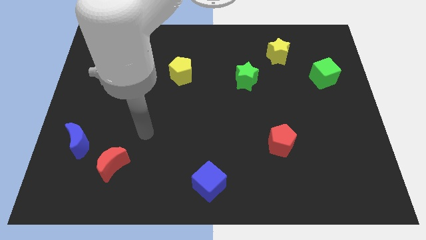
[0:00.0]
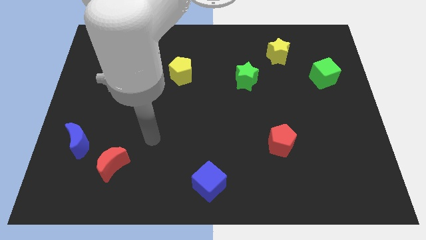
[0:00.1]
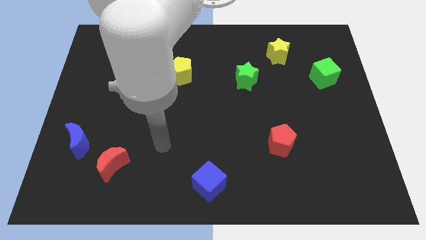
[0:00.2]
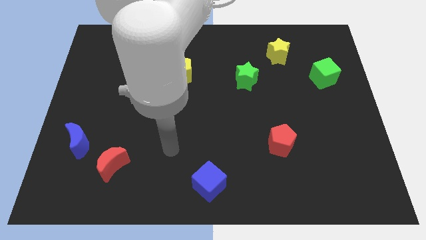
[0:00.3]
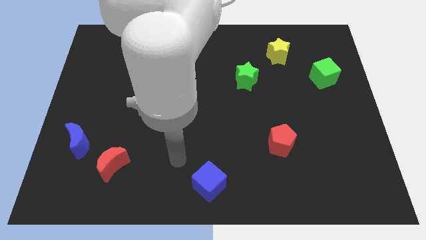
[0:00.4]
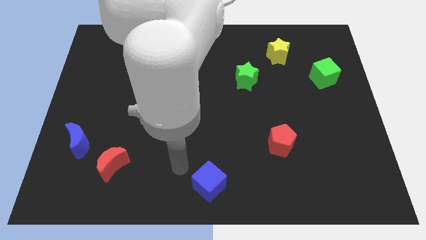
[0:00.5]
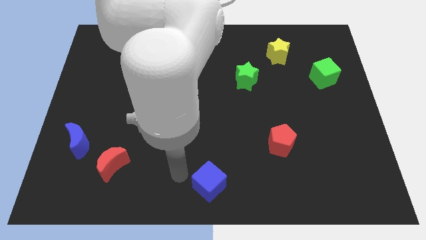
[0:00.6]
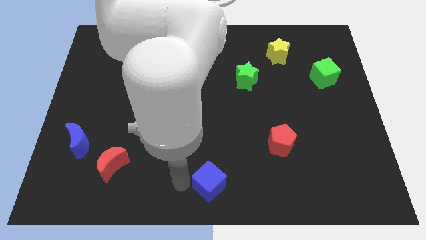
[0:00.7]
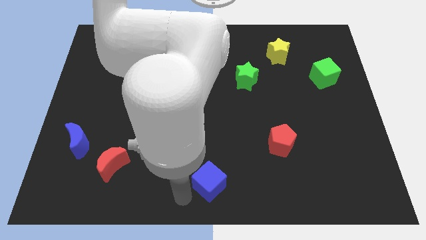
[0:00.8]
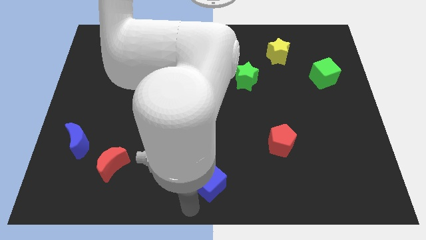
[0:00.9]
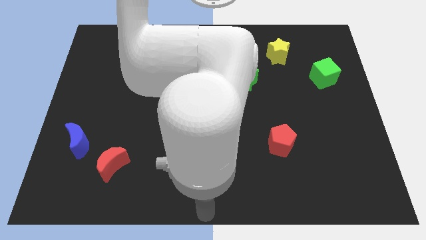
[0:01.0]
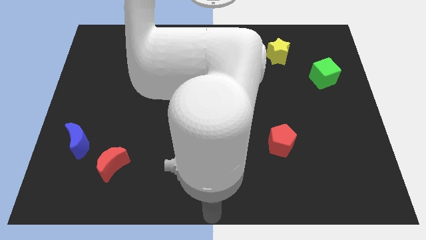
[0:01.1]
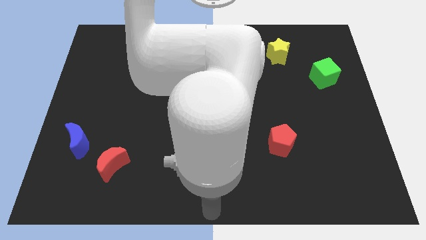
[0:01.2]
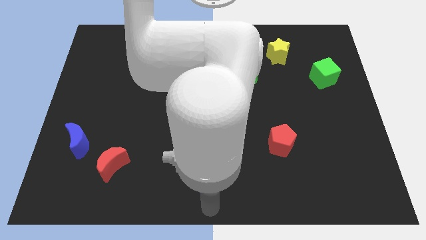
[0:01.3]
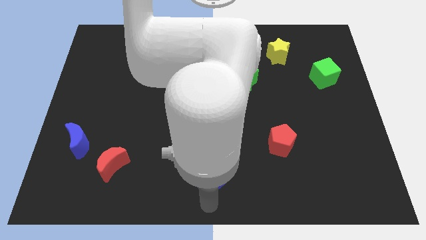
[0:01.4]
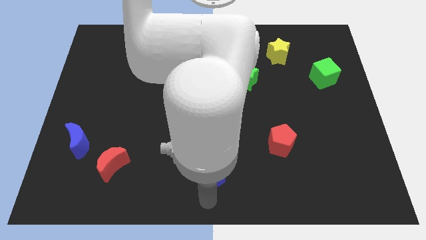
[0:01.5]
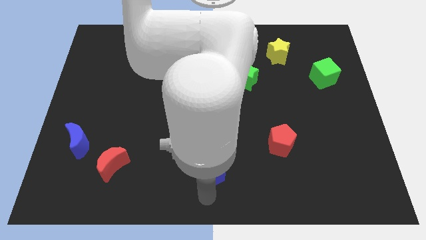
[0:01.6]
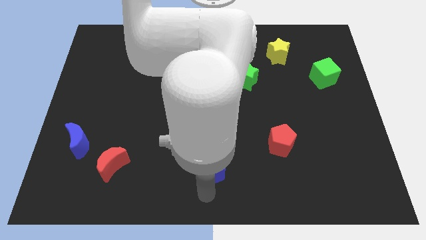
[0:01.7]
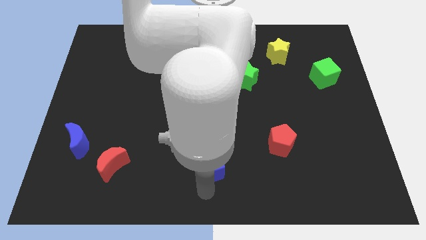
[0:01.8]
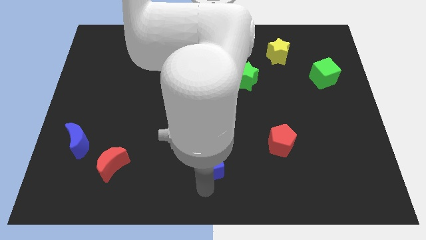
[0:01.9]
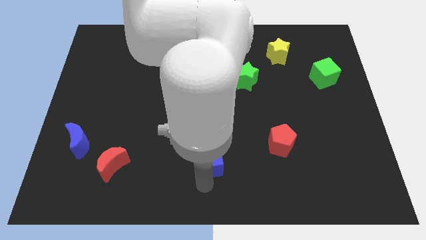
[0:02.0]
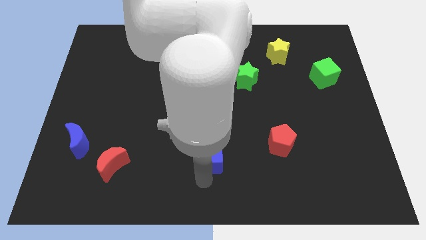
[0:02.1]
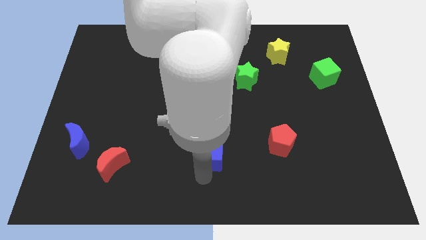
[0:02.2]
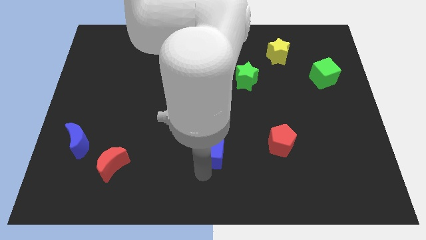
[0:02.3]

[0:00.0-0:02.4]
slightly push the blue cube upwards

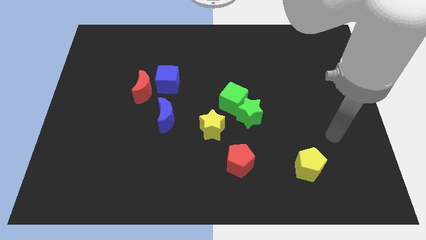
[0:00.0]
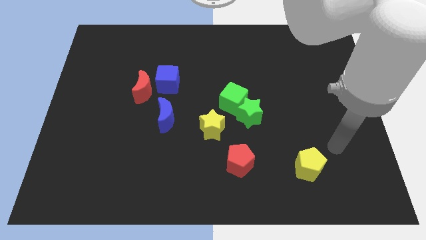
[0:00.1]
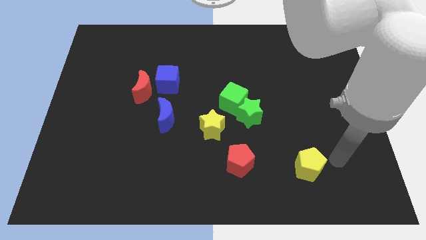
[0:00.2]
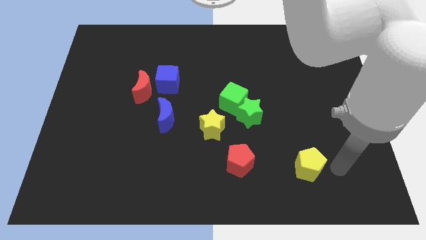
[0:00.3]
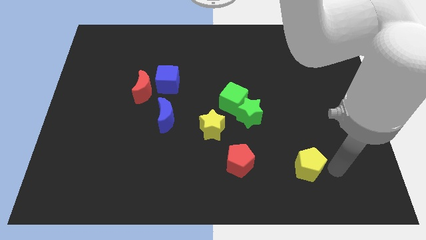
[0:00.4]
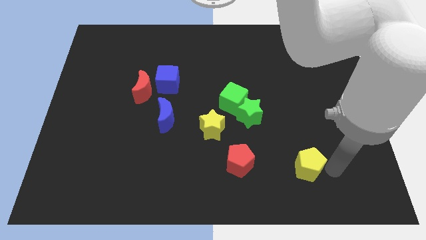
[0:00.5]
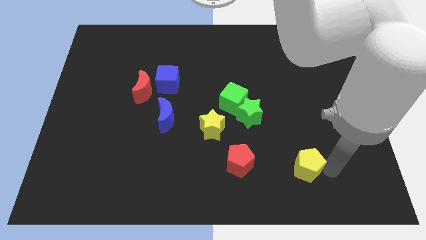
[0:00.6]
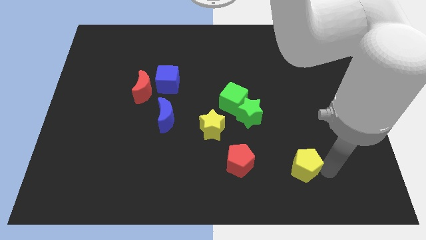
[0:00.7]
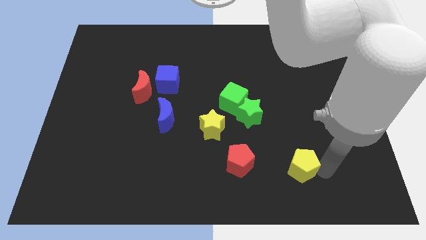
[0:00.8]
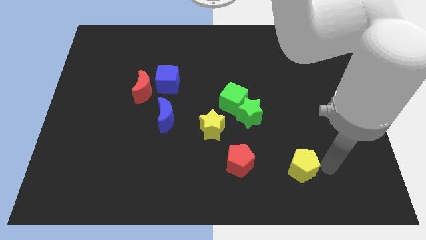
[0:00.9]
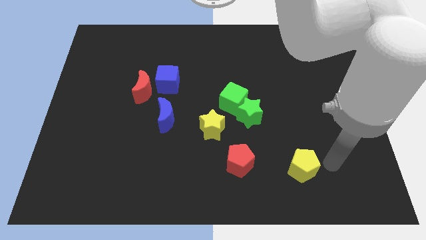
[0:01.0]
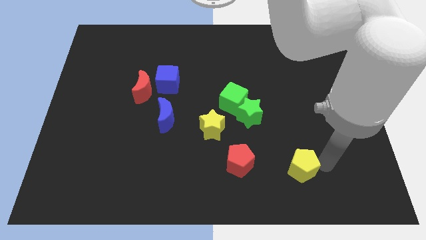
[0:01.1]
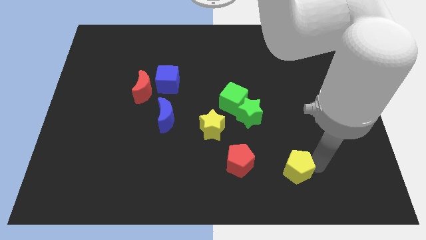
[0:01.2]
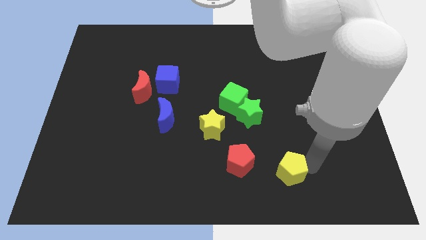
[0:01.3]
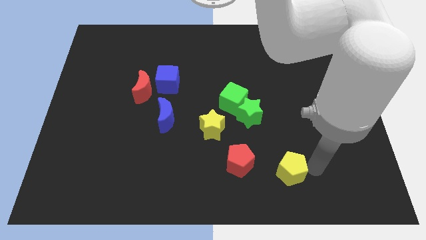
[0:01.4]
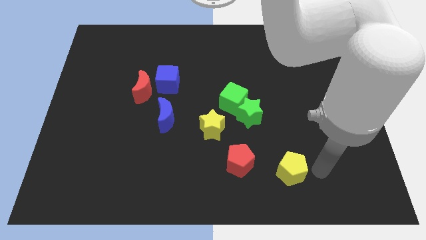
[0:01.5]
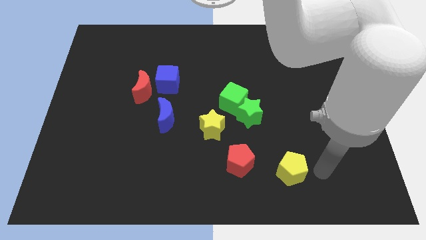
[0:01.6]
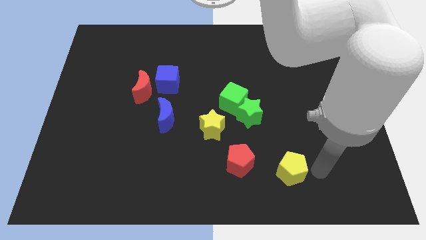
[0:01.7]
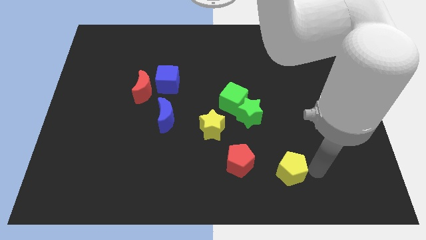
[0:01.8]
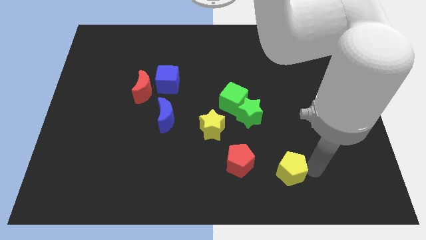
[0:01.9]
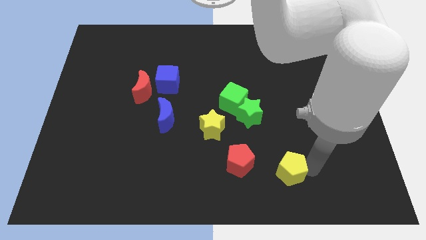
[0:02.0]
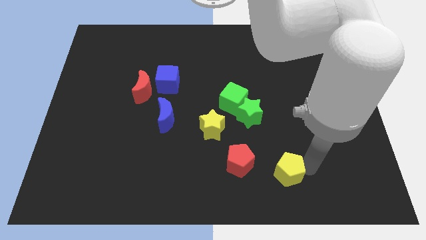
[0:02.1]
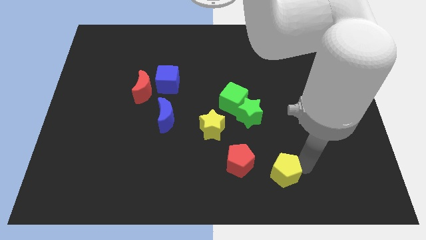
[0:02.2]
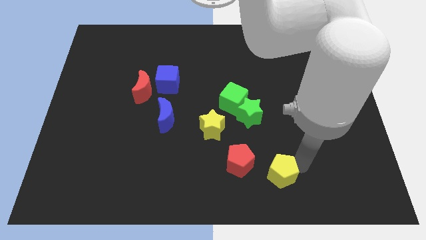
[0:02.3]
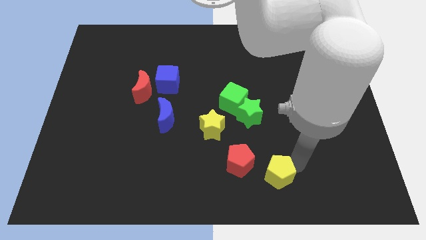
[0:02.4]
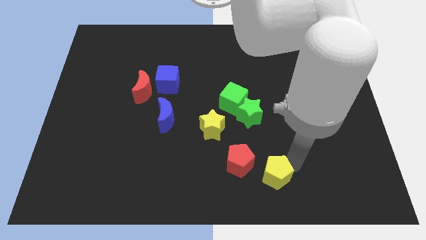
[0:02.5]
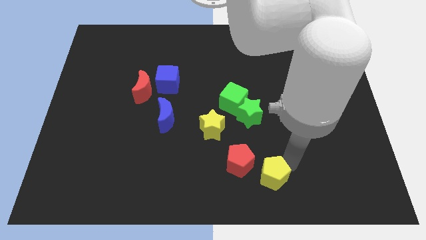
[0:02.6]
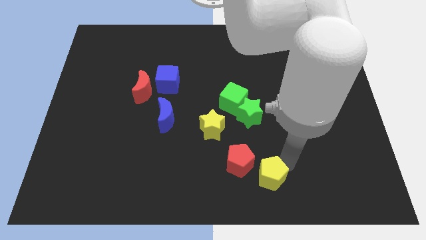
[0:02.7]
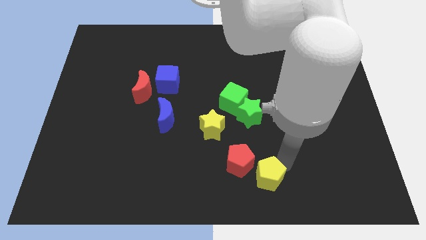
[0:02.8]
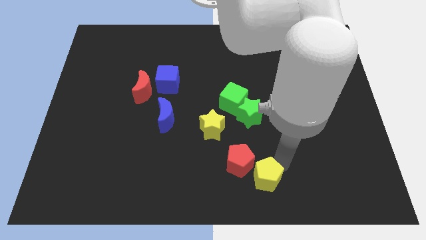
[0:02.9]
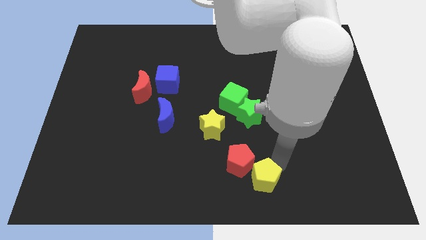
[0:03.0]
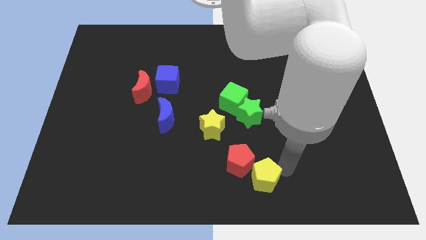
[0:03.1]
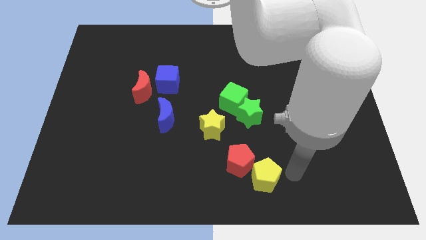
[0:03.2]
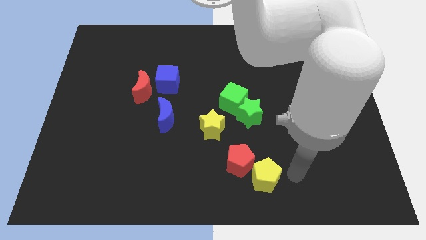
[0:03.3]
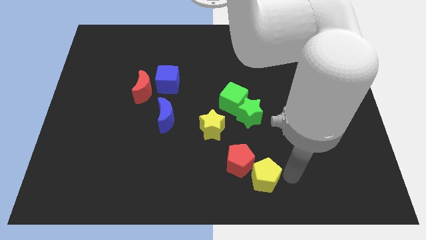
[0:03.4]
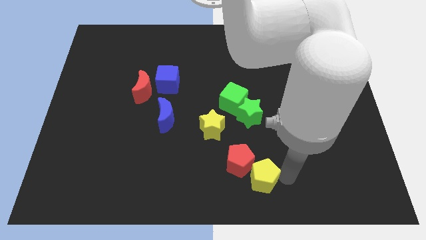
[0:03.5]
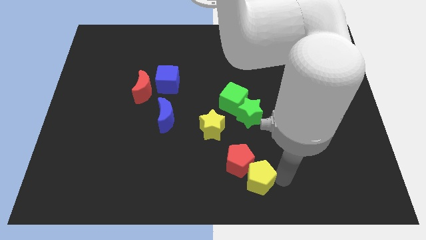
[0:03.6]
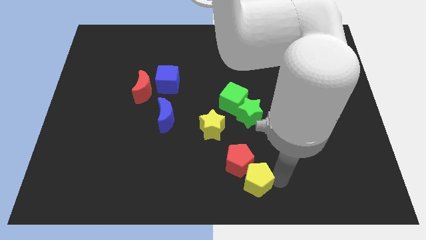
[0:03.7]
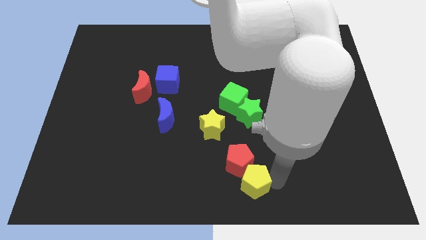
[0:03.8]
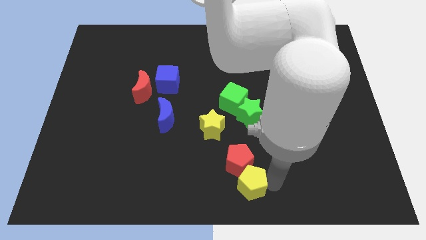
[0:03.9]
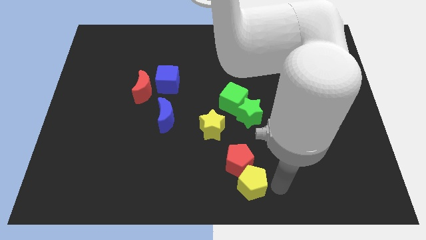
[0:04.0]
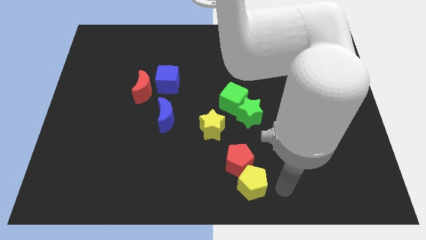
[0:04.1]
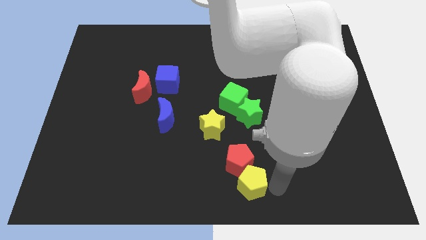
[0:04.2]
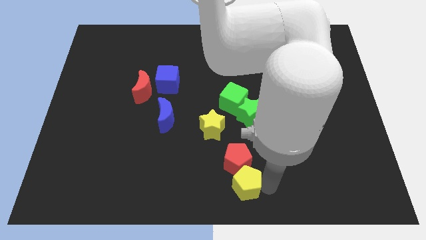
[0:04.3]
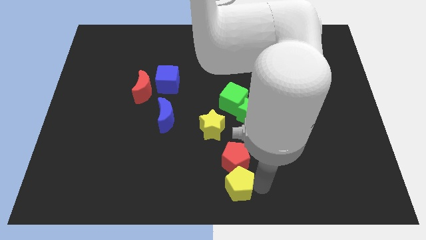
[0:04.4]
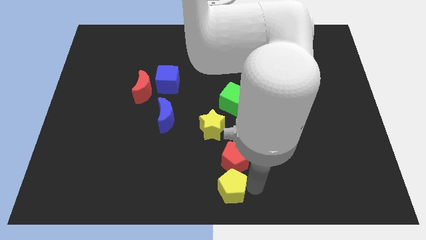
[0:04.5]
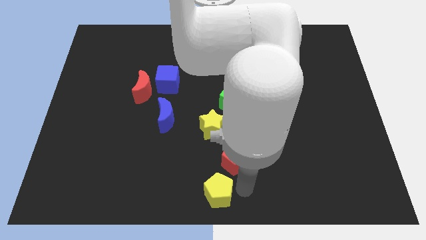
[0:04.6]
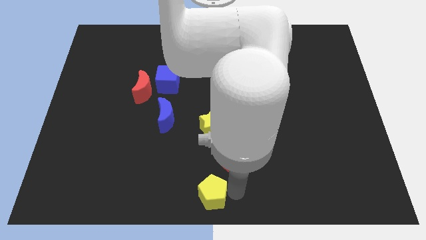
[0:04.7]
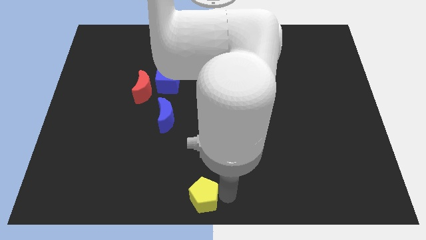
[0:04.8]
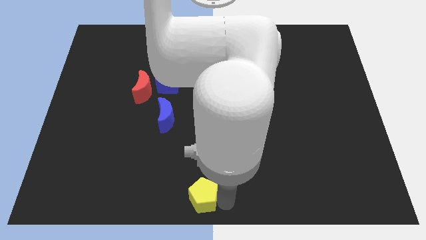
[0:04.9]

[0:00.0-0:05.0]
push the yellow pentagon to the left

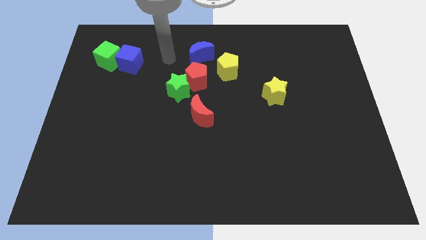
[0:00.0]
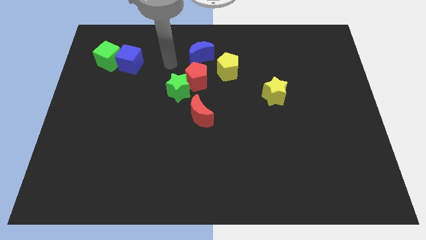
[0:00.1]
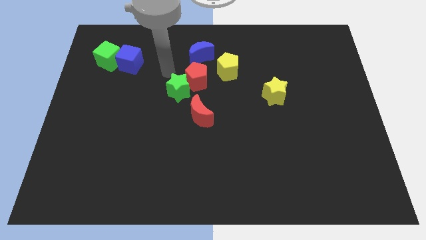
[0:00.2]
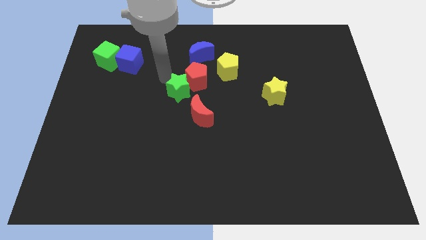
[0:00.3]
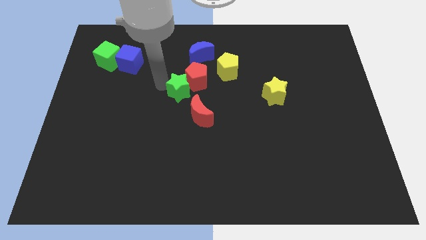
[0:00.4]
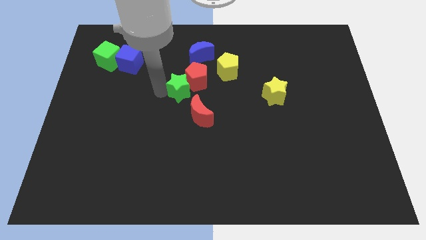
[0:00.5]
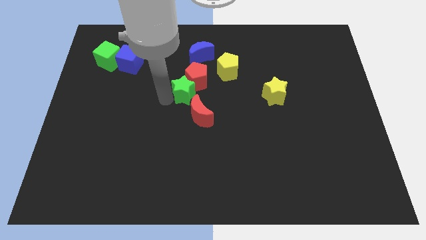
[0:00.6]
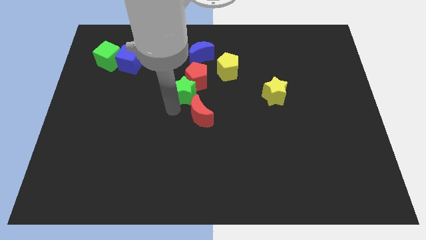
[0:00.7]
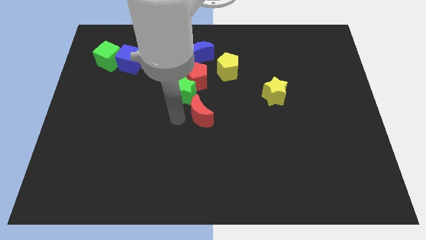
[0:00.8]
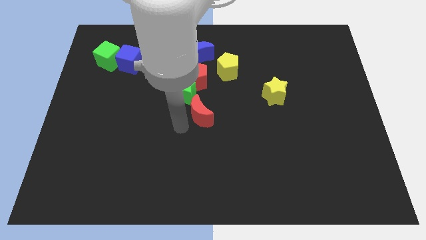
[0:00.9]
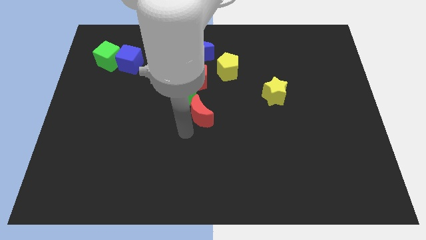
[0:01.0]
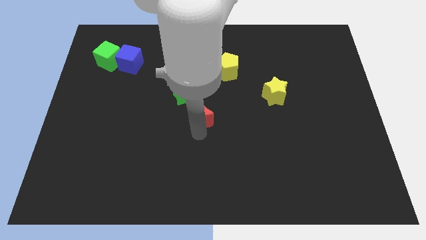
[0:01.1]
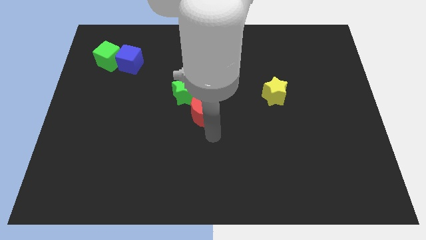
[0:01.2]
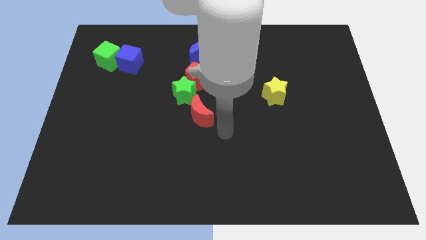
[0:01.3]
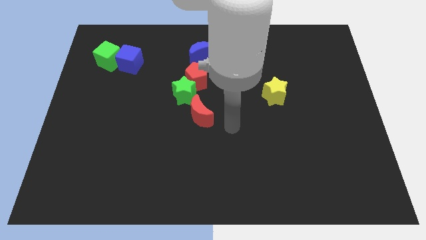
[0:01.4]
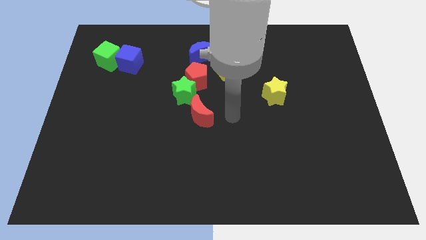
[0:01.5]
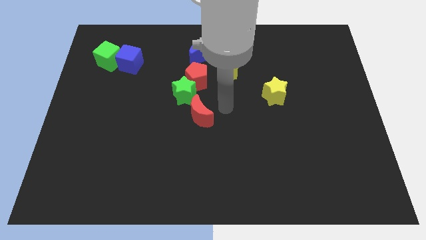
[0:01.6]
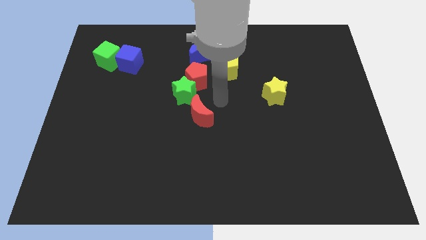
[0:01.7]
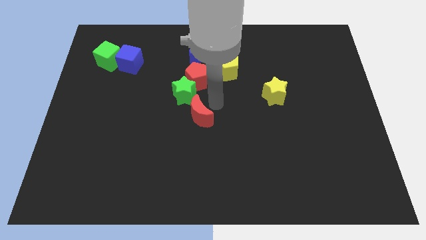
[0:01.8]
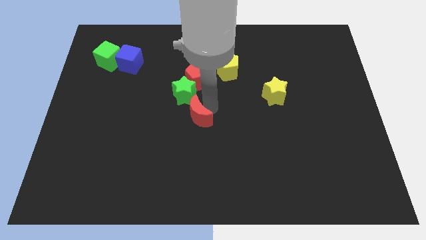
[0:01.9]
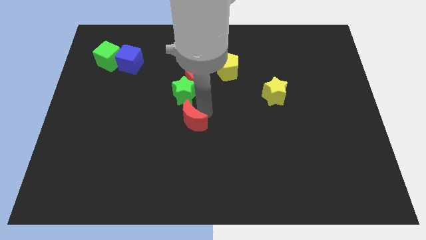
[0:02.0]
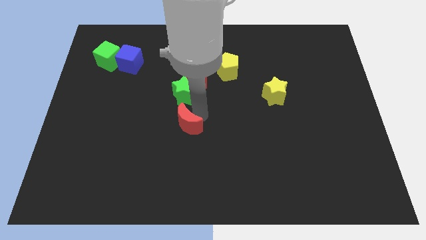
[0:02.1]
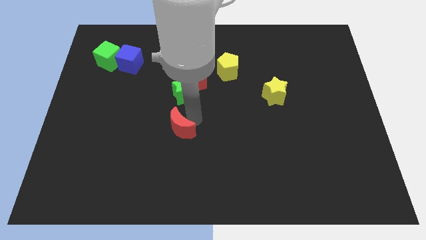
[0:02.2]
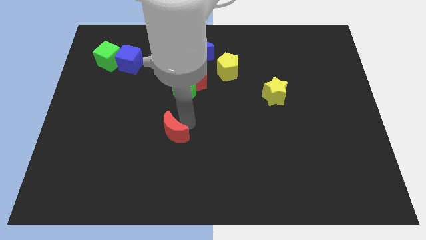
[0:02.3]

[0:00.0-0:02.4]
move the red moon a little bit downwards and to the left
